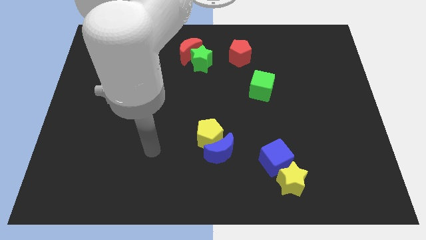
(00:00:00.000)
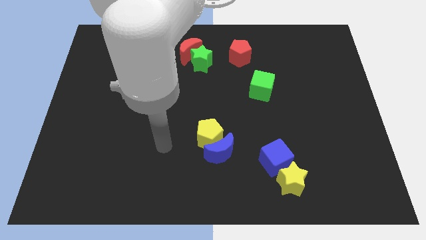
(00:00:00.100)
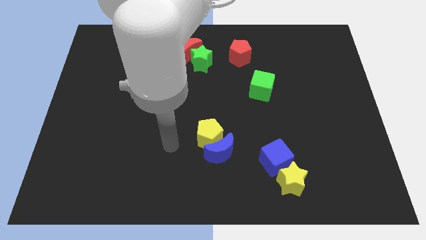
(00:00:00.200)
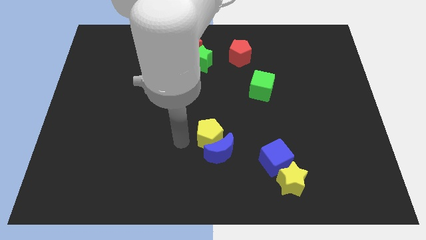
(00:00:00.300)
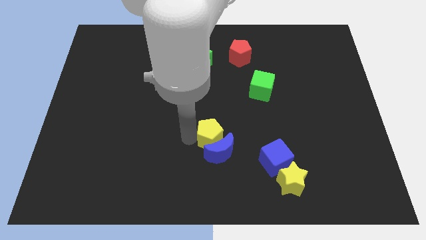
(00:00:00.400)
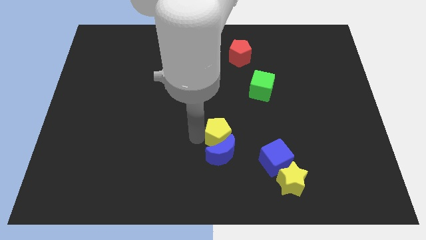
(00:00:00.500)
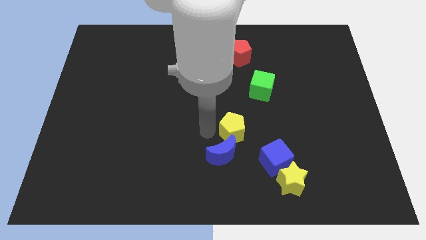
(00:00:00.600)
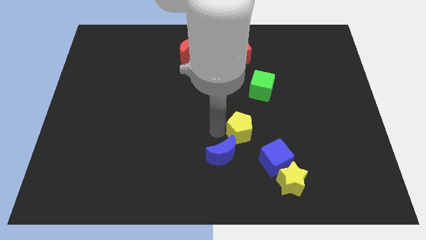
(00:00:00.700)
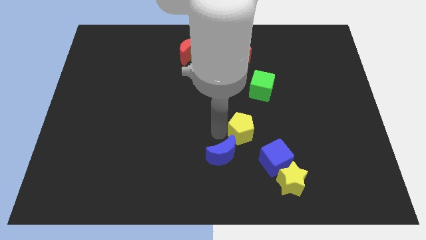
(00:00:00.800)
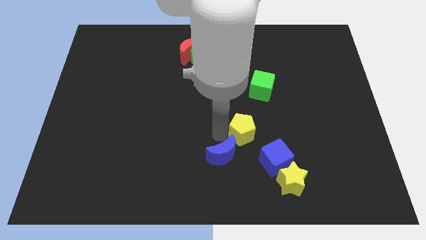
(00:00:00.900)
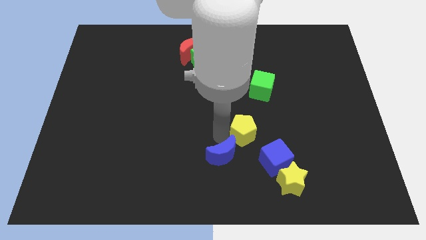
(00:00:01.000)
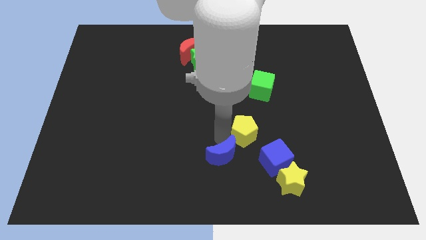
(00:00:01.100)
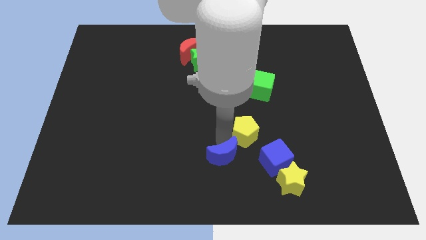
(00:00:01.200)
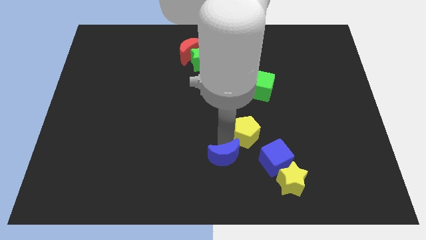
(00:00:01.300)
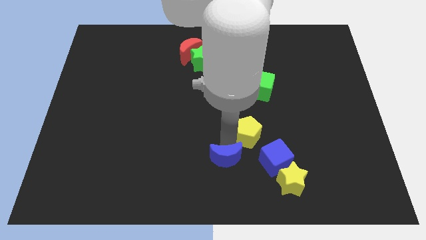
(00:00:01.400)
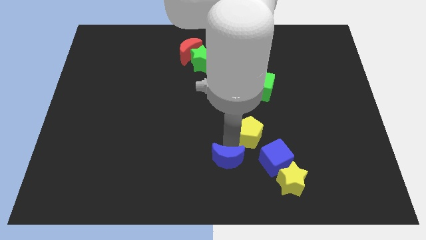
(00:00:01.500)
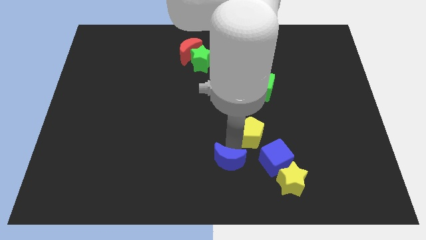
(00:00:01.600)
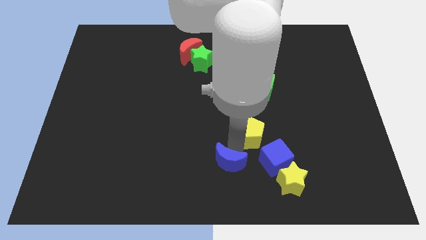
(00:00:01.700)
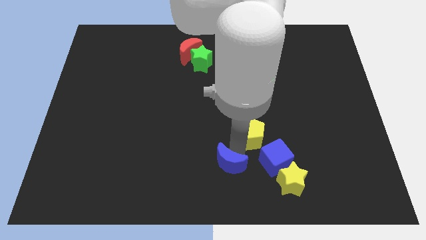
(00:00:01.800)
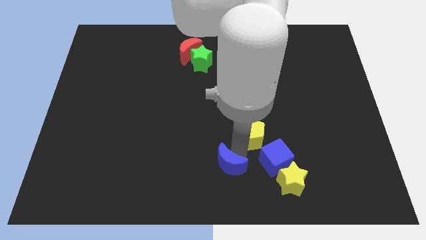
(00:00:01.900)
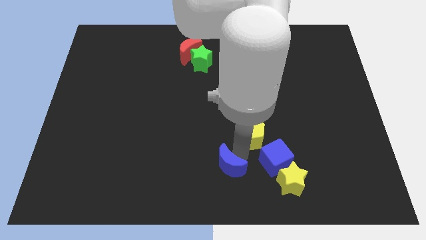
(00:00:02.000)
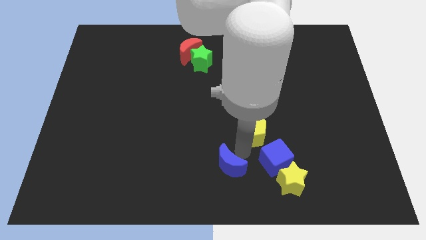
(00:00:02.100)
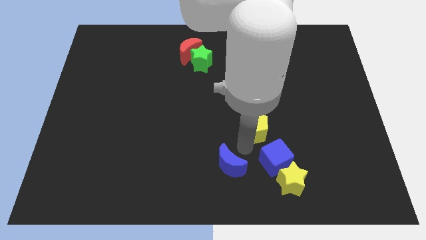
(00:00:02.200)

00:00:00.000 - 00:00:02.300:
separate the blue moon from the yellow pentagon

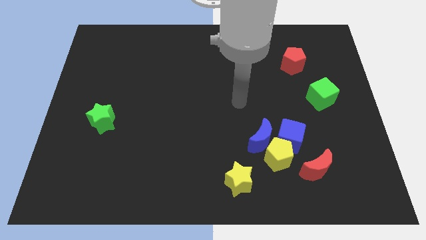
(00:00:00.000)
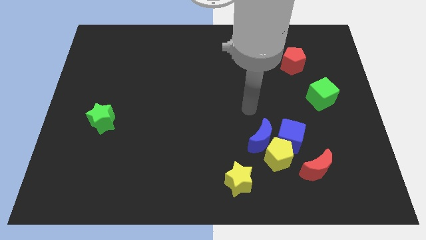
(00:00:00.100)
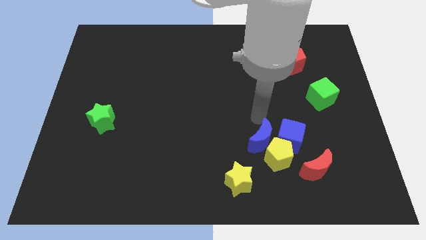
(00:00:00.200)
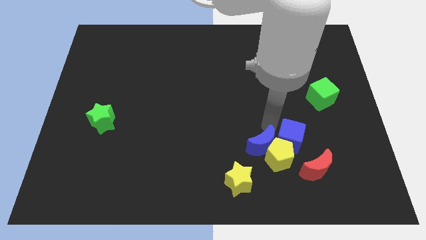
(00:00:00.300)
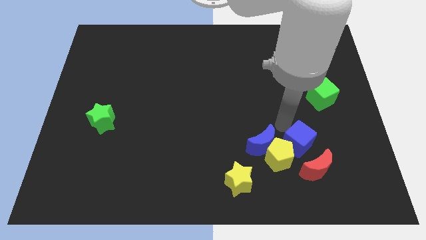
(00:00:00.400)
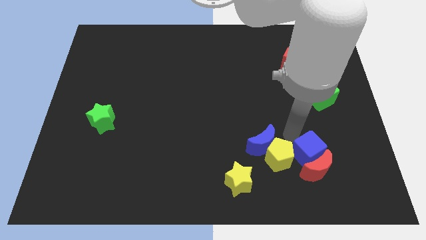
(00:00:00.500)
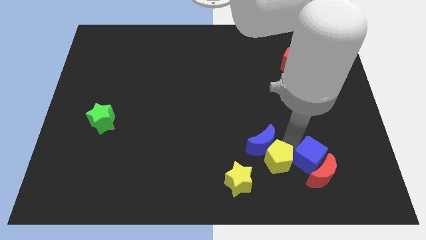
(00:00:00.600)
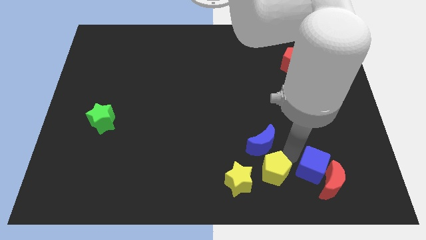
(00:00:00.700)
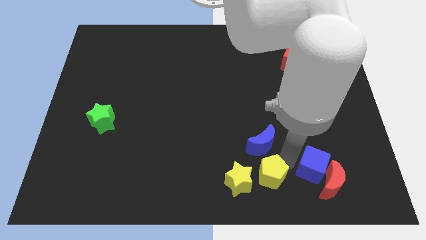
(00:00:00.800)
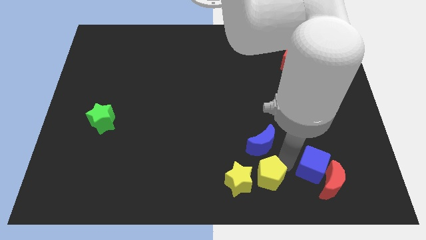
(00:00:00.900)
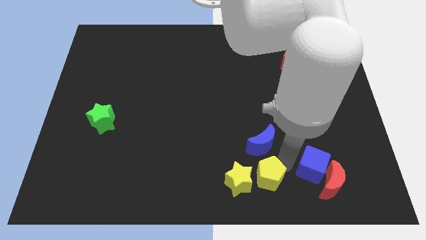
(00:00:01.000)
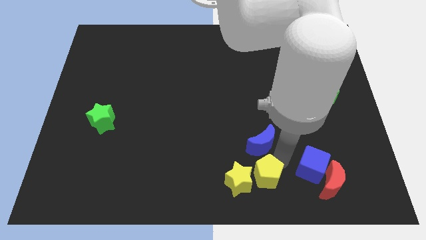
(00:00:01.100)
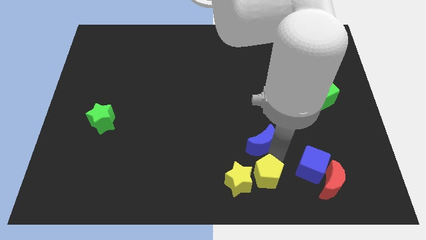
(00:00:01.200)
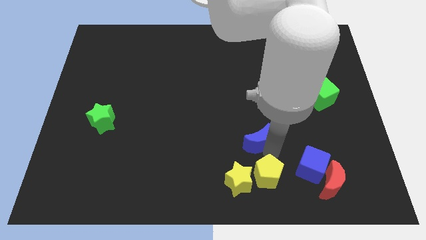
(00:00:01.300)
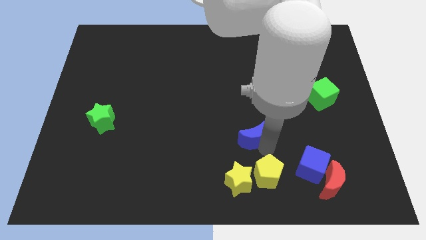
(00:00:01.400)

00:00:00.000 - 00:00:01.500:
separate the blue moon from the yellow pentagon and blue cube

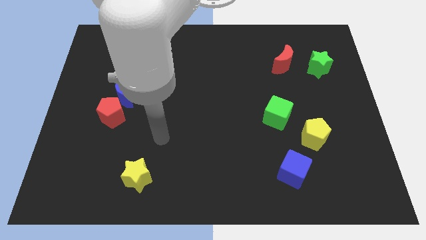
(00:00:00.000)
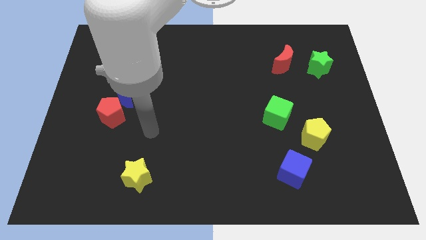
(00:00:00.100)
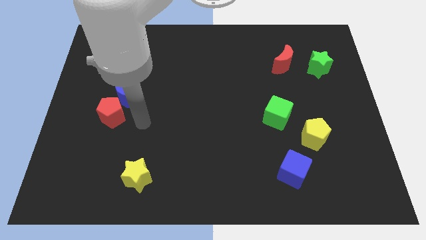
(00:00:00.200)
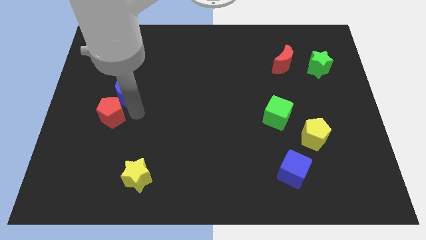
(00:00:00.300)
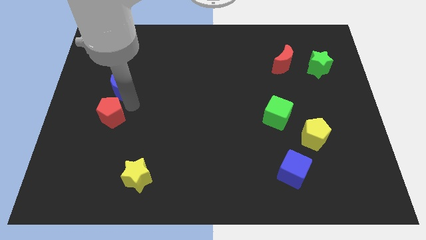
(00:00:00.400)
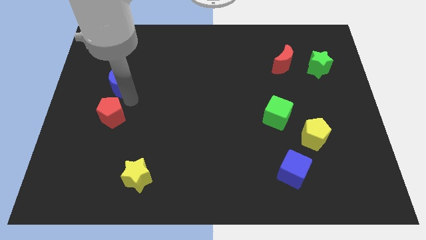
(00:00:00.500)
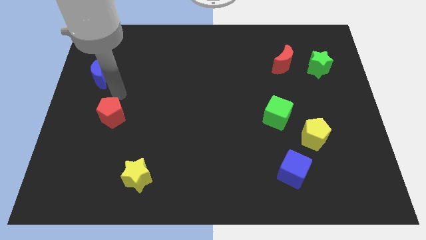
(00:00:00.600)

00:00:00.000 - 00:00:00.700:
separate the red pentagon from the blue moon

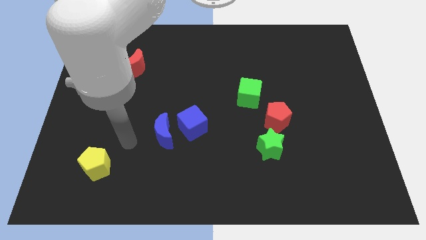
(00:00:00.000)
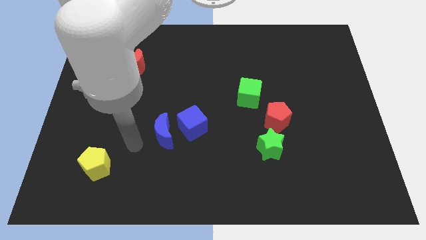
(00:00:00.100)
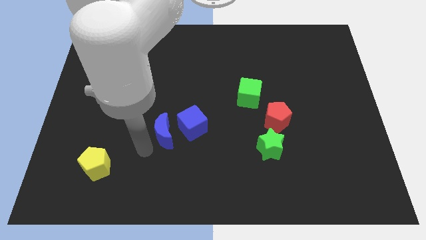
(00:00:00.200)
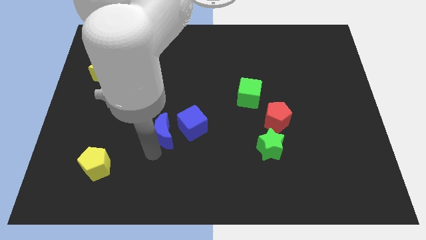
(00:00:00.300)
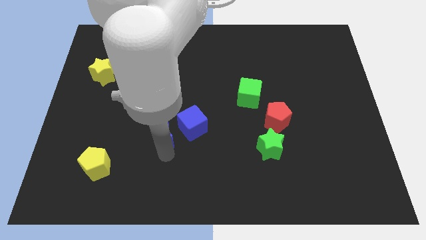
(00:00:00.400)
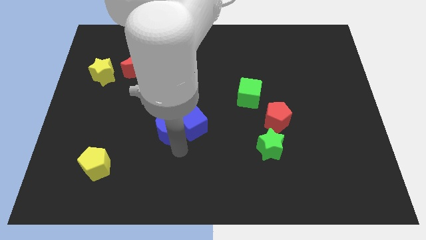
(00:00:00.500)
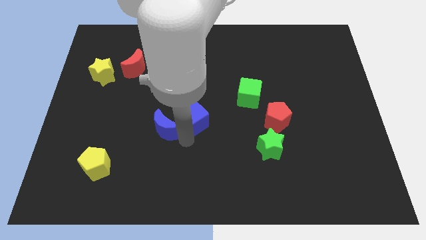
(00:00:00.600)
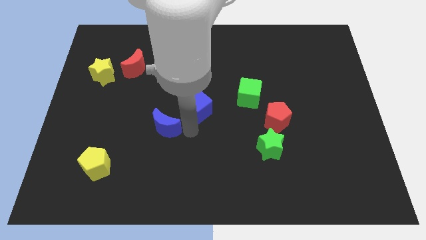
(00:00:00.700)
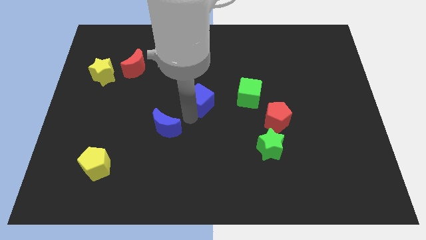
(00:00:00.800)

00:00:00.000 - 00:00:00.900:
separate the blue moon from the blue cube

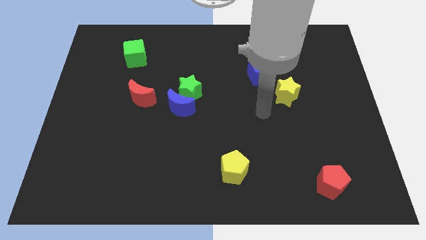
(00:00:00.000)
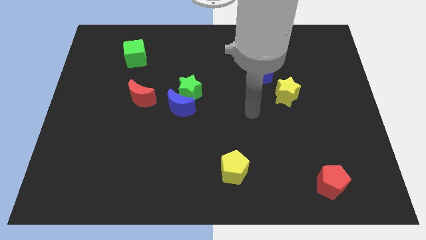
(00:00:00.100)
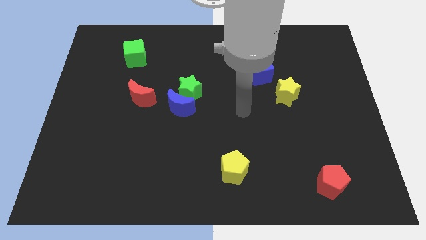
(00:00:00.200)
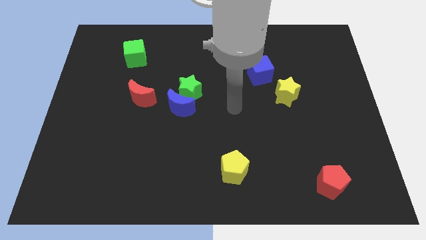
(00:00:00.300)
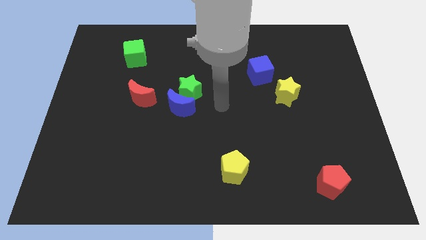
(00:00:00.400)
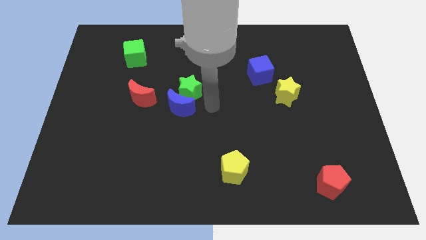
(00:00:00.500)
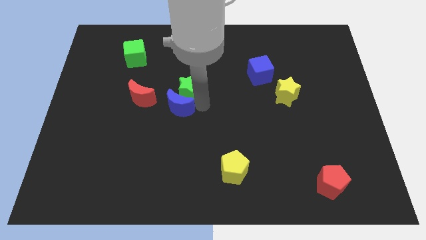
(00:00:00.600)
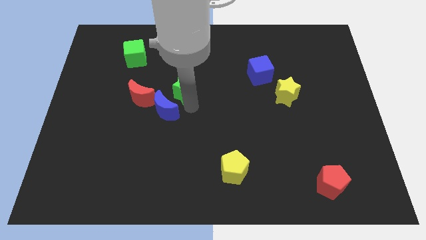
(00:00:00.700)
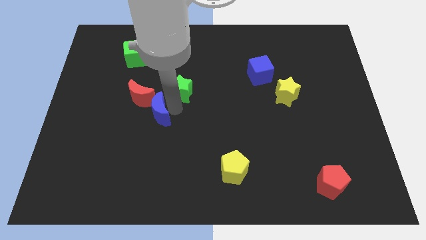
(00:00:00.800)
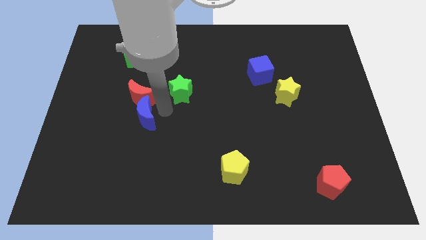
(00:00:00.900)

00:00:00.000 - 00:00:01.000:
pull the green star apart from the blue moon

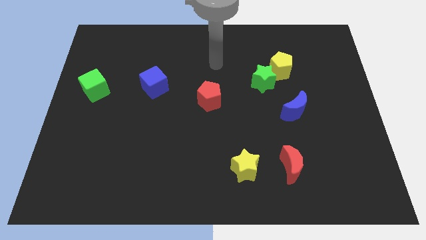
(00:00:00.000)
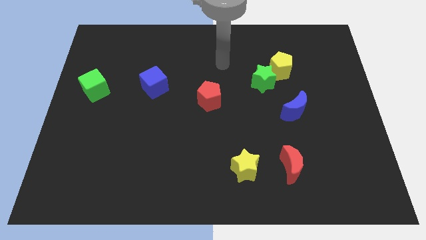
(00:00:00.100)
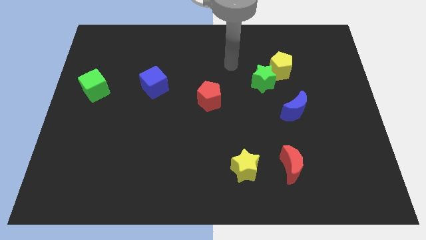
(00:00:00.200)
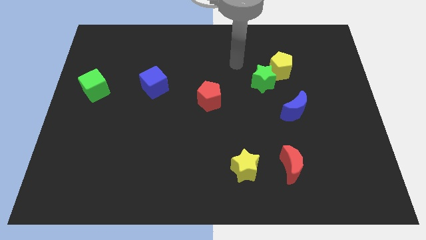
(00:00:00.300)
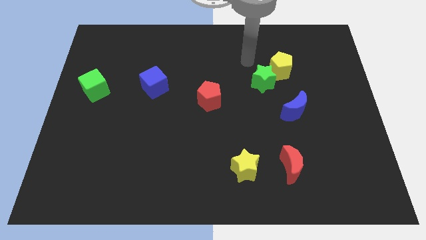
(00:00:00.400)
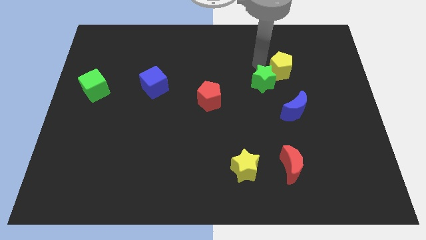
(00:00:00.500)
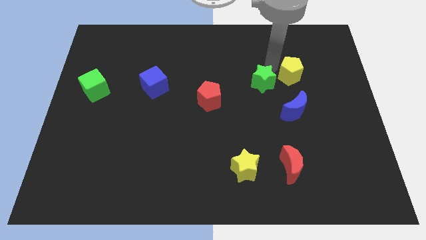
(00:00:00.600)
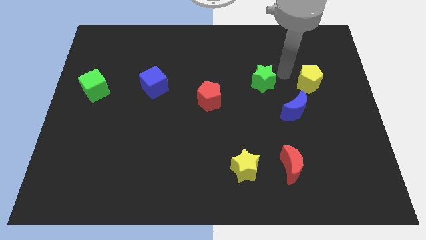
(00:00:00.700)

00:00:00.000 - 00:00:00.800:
separate the green star from the yellow pentagon

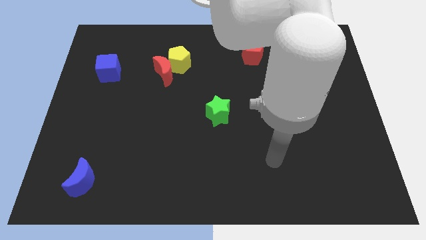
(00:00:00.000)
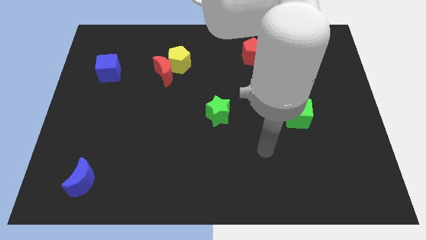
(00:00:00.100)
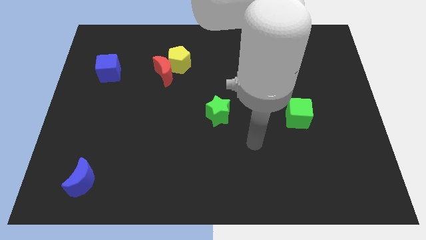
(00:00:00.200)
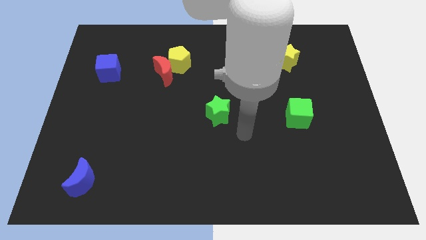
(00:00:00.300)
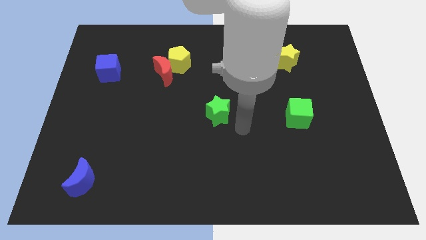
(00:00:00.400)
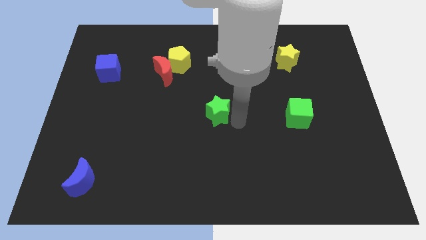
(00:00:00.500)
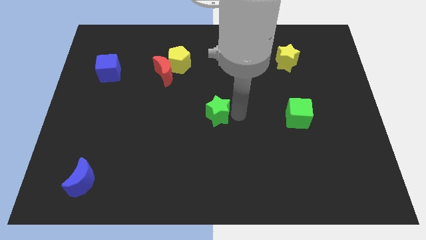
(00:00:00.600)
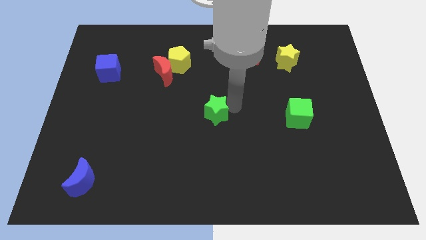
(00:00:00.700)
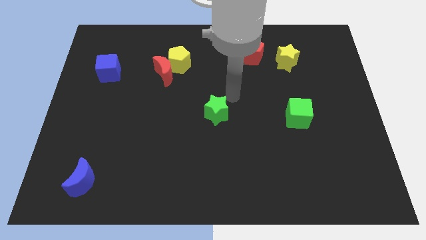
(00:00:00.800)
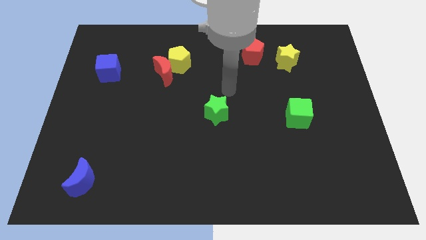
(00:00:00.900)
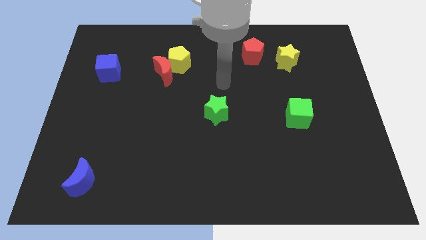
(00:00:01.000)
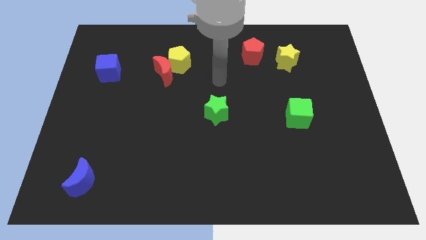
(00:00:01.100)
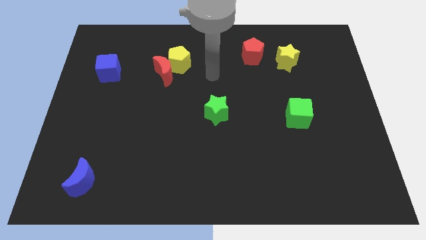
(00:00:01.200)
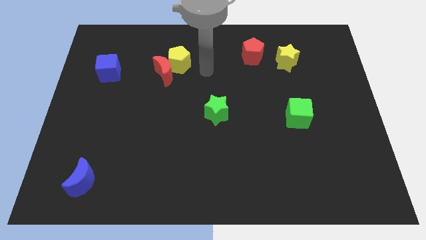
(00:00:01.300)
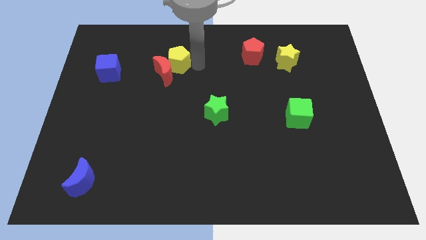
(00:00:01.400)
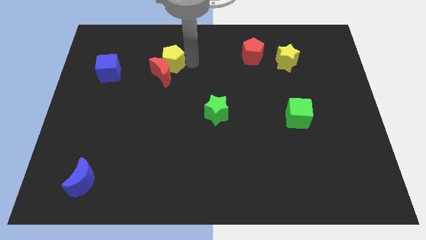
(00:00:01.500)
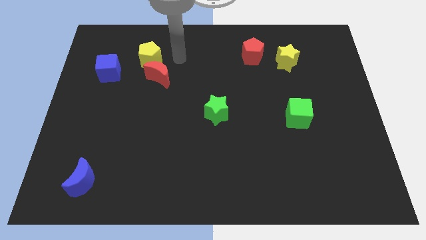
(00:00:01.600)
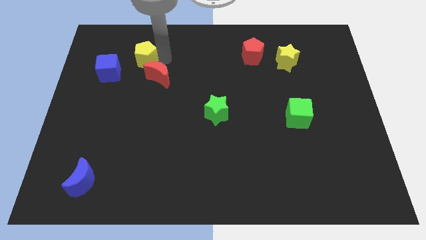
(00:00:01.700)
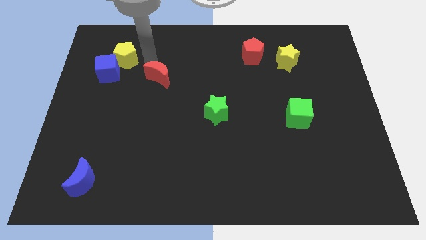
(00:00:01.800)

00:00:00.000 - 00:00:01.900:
separate the red moon from the yellow pentagon

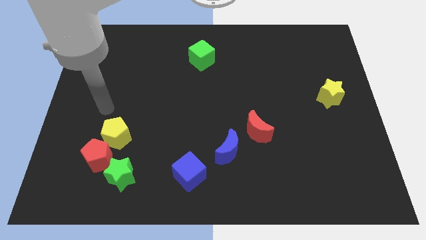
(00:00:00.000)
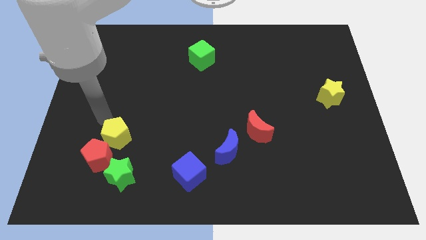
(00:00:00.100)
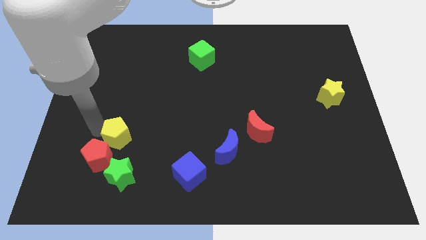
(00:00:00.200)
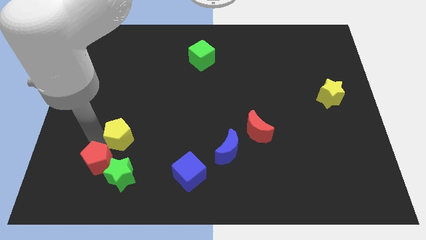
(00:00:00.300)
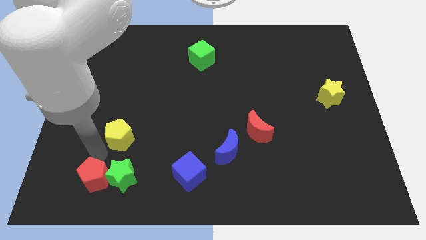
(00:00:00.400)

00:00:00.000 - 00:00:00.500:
separate the yellow pentagon from the red pentagon
